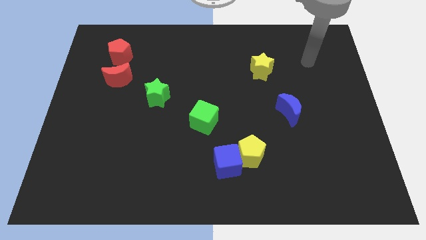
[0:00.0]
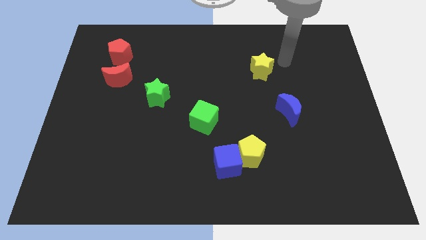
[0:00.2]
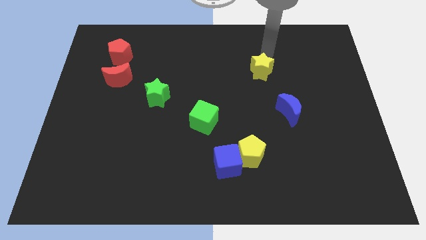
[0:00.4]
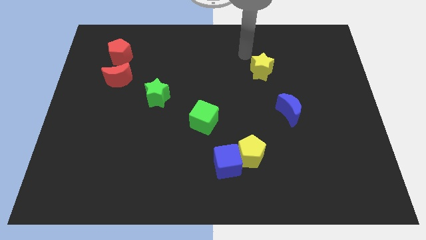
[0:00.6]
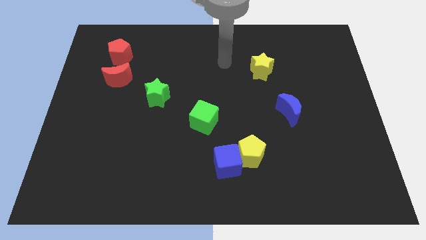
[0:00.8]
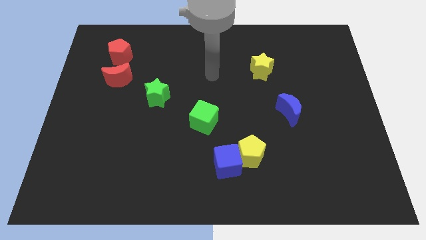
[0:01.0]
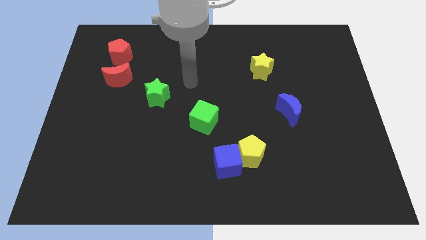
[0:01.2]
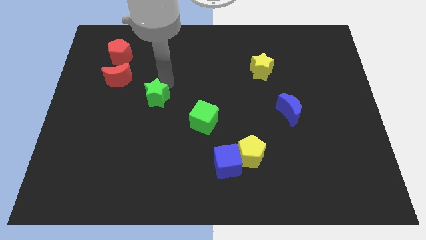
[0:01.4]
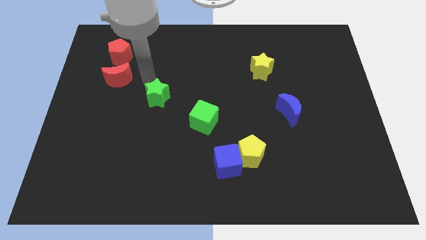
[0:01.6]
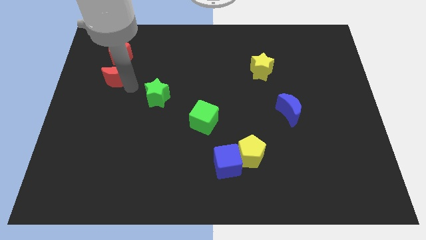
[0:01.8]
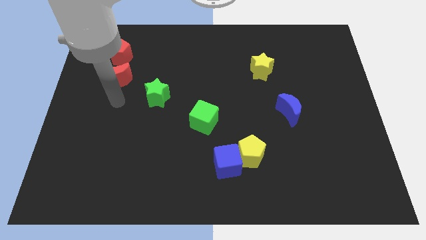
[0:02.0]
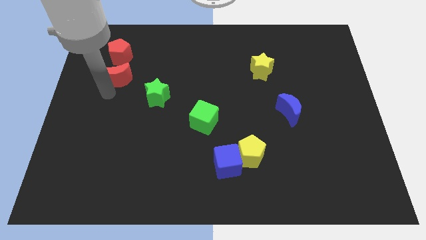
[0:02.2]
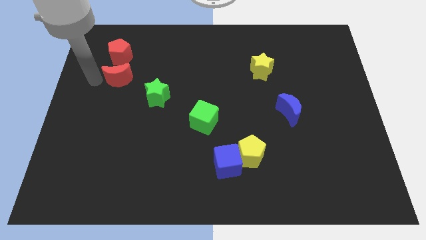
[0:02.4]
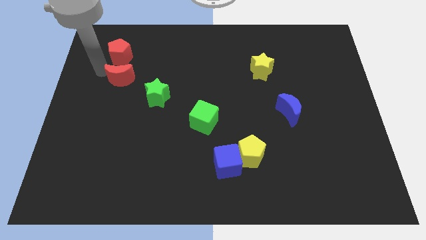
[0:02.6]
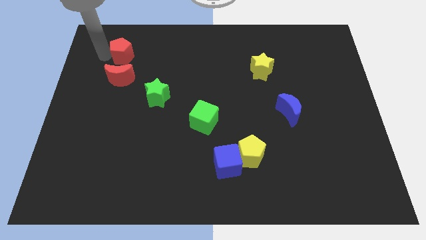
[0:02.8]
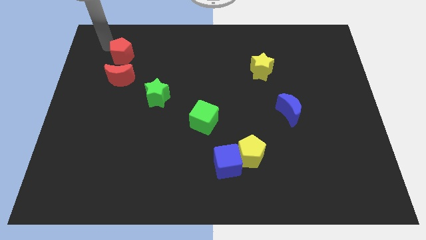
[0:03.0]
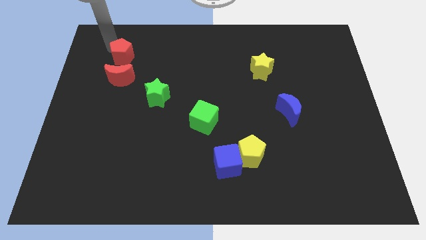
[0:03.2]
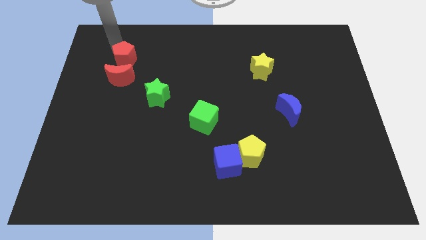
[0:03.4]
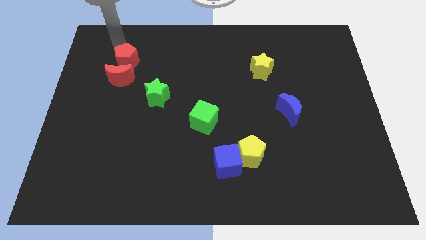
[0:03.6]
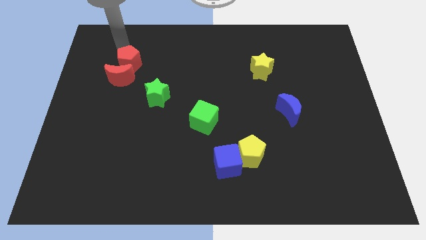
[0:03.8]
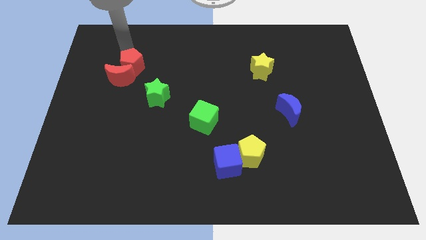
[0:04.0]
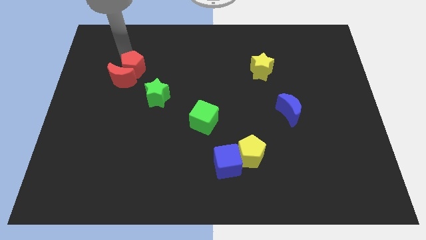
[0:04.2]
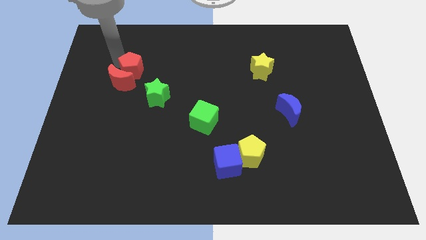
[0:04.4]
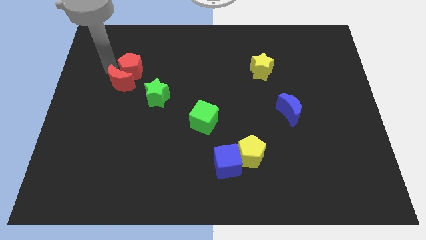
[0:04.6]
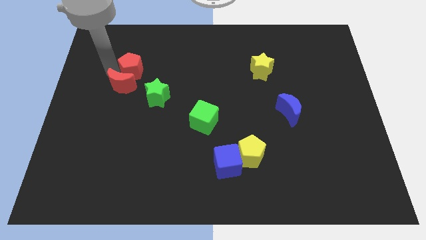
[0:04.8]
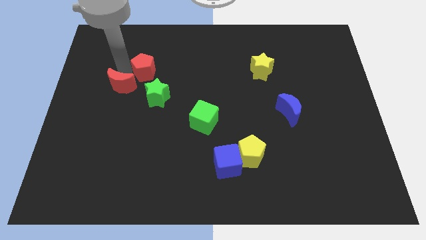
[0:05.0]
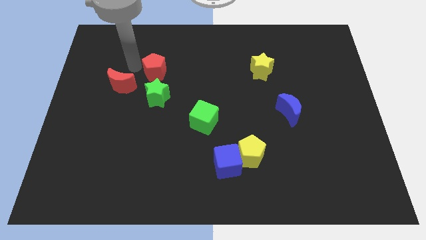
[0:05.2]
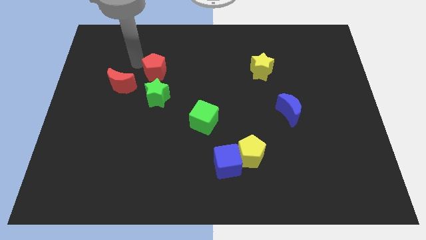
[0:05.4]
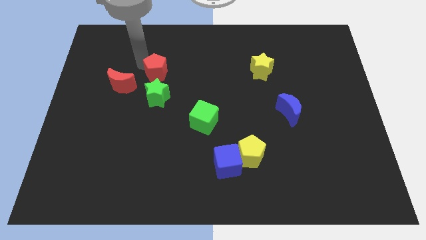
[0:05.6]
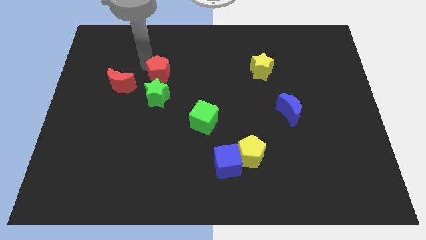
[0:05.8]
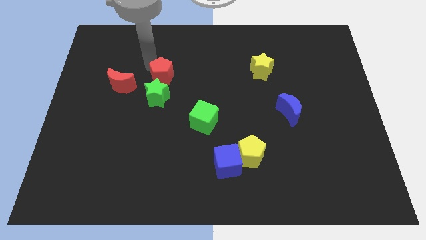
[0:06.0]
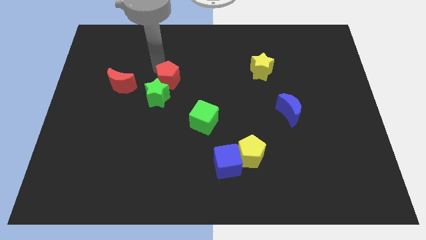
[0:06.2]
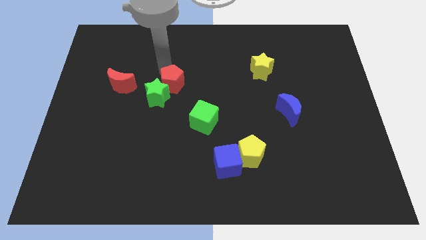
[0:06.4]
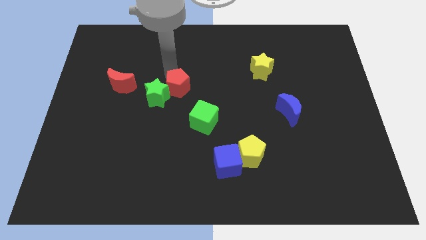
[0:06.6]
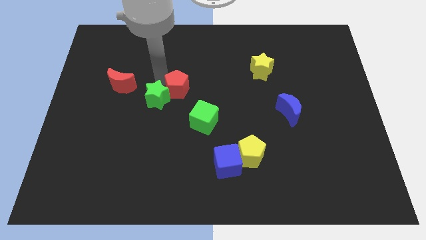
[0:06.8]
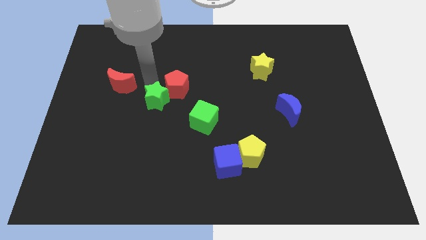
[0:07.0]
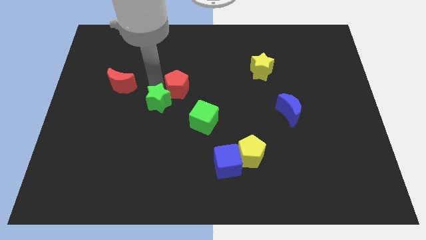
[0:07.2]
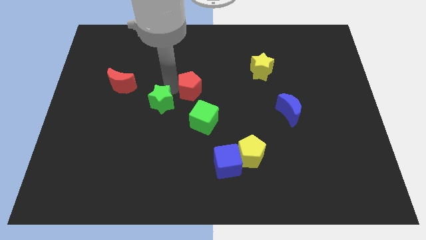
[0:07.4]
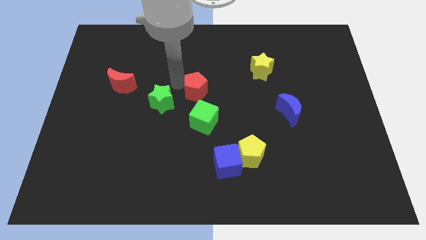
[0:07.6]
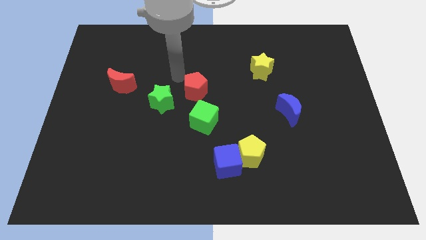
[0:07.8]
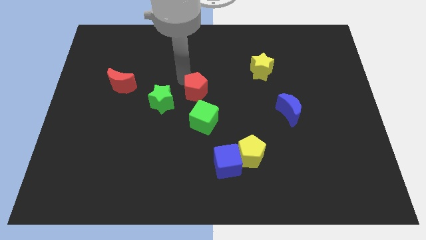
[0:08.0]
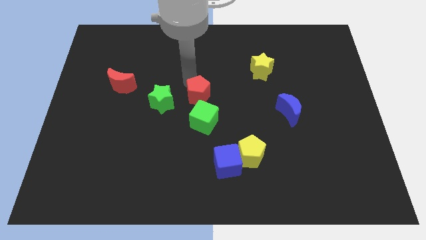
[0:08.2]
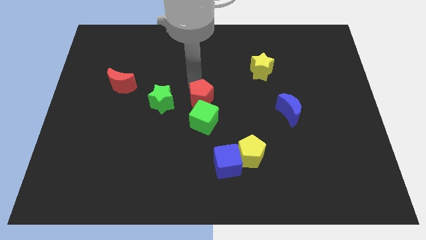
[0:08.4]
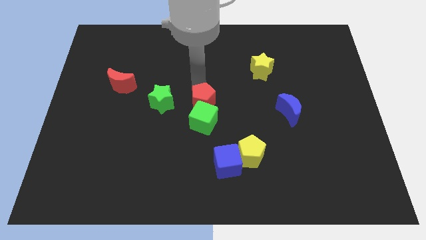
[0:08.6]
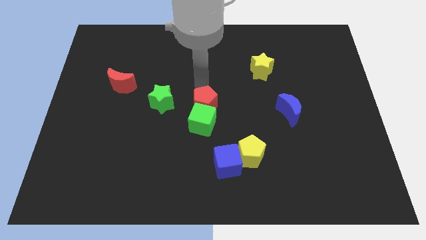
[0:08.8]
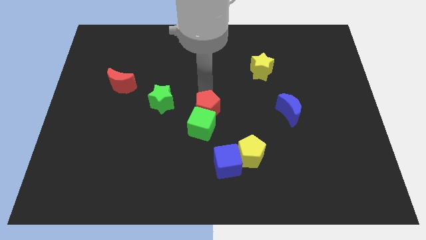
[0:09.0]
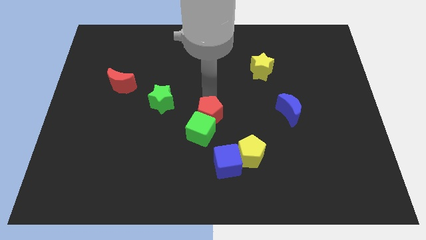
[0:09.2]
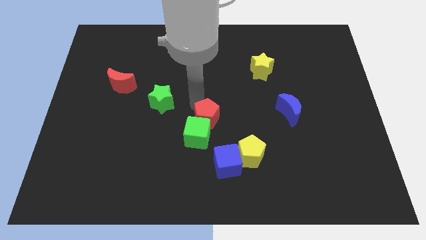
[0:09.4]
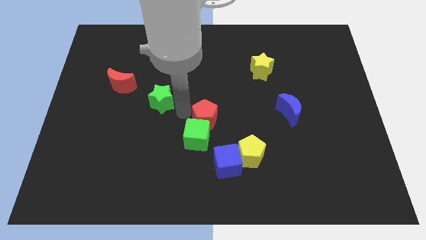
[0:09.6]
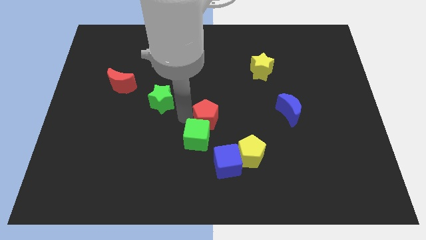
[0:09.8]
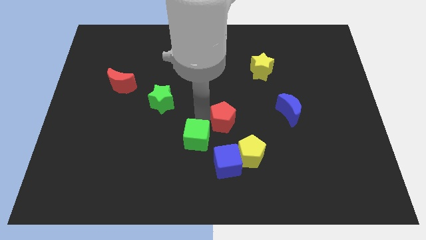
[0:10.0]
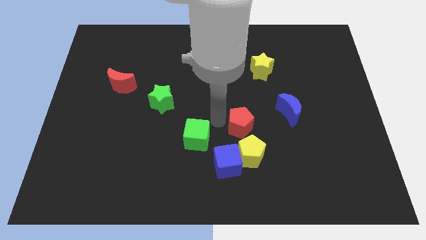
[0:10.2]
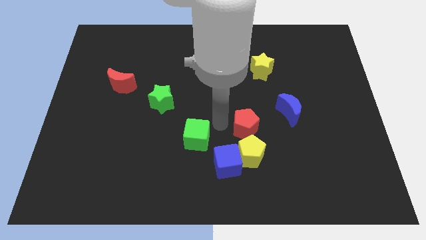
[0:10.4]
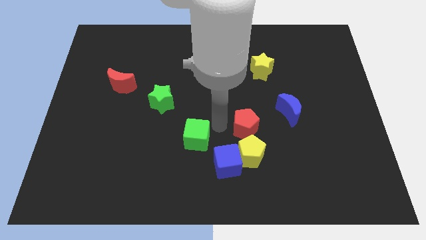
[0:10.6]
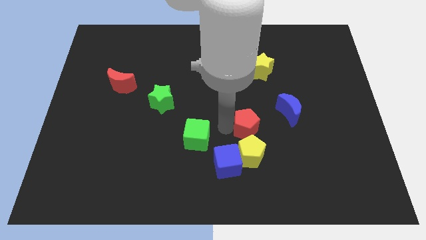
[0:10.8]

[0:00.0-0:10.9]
move the red pentagon to the bottom left of the blue moon

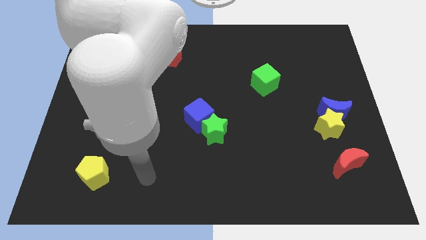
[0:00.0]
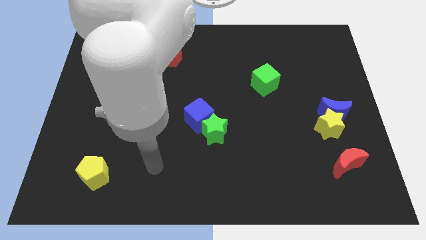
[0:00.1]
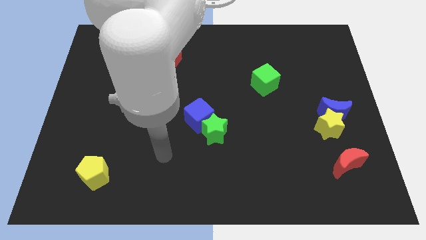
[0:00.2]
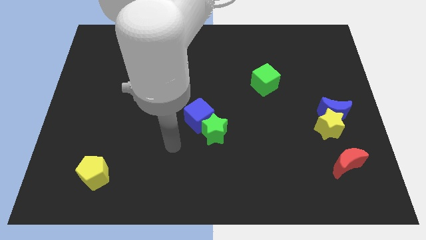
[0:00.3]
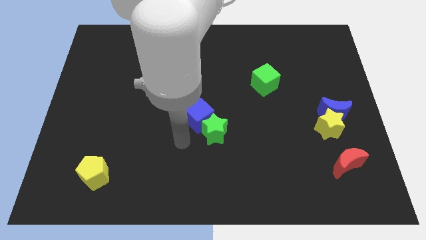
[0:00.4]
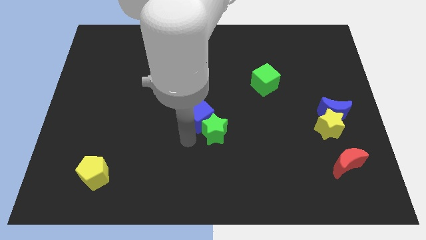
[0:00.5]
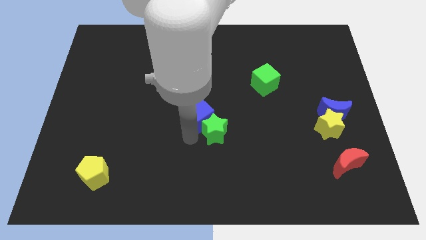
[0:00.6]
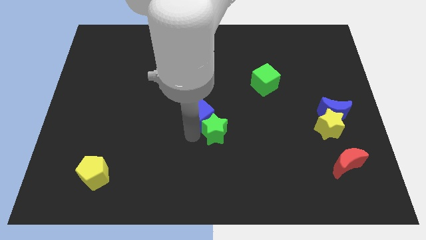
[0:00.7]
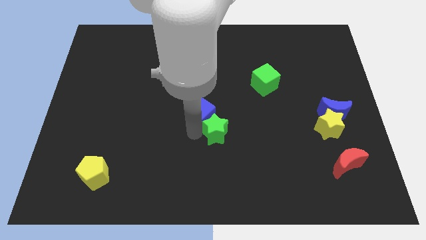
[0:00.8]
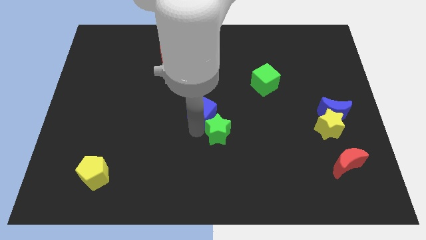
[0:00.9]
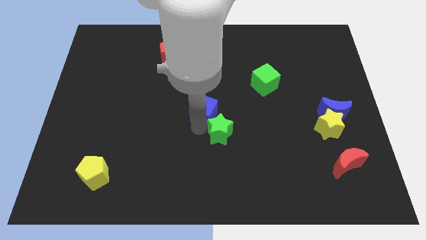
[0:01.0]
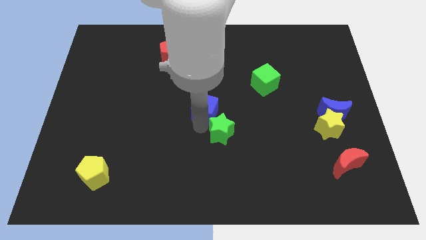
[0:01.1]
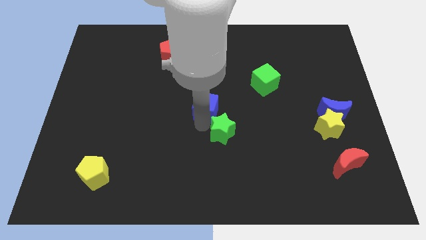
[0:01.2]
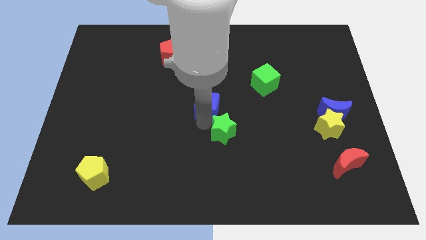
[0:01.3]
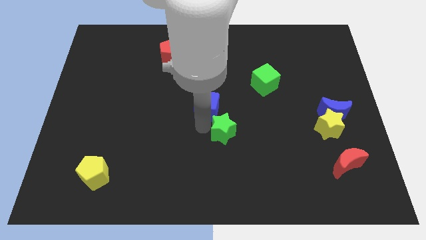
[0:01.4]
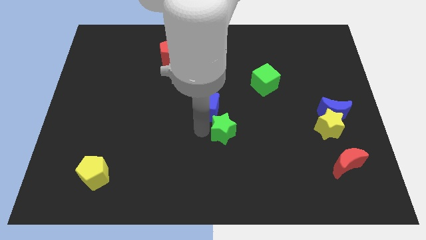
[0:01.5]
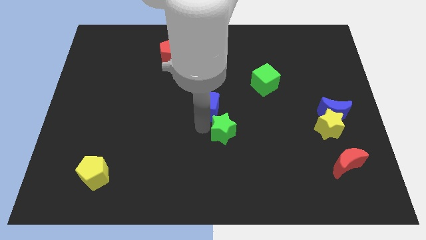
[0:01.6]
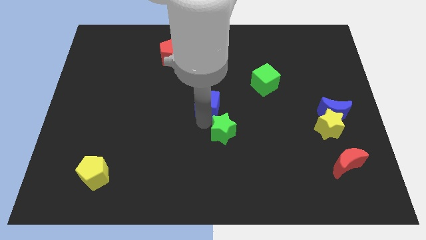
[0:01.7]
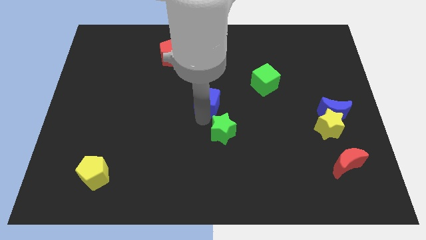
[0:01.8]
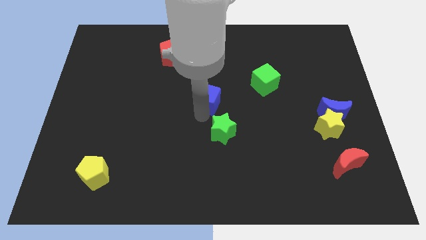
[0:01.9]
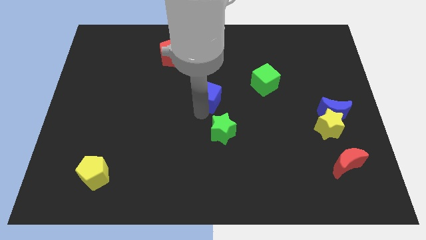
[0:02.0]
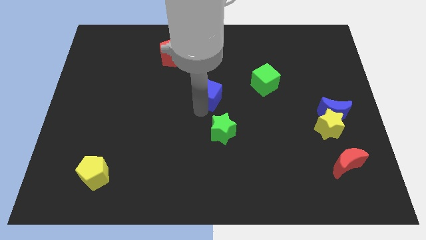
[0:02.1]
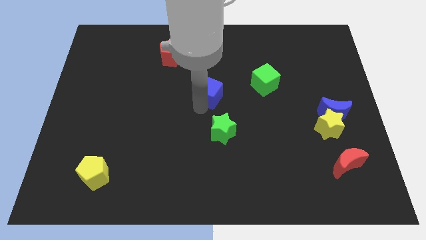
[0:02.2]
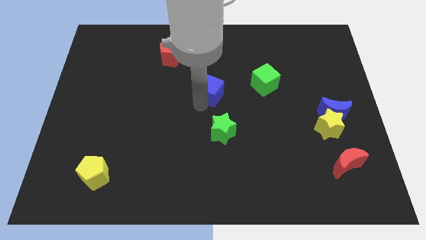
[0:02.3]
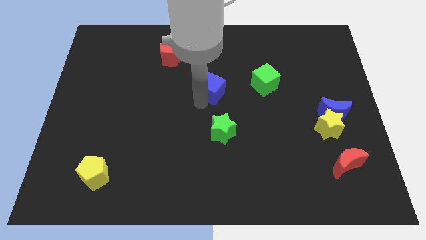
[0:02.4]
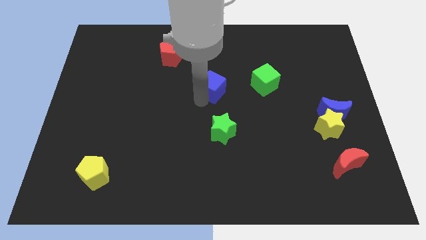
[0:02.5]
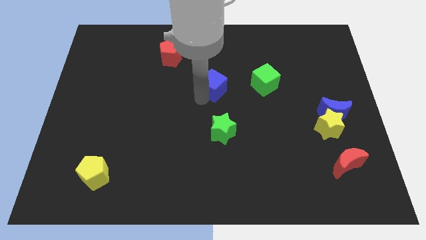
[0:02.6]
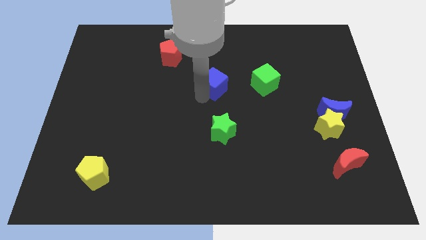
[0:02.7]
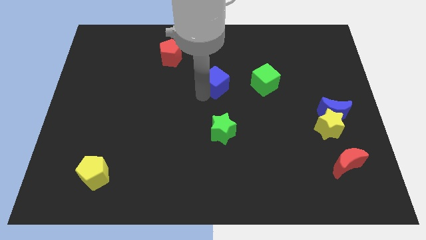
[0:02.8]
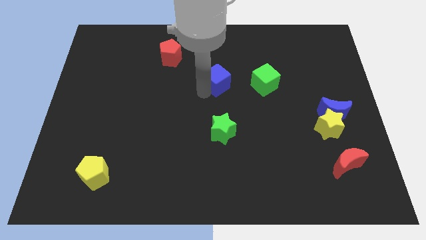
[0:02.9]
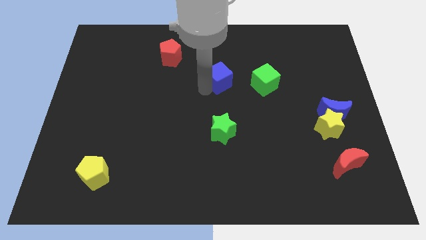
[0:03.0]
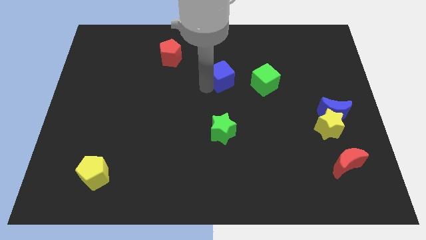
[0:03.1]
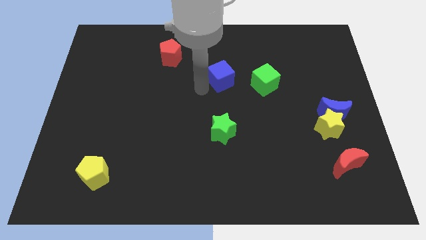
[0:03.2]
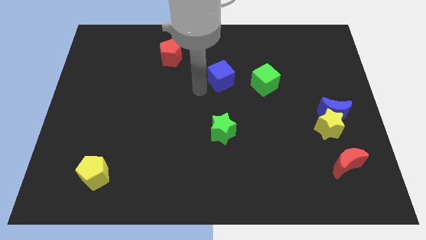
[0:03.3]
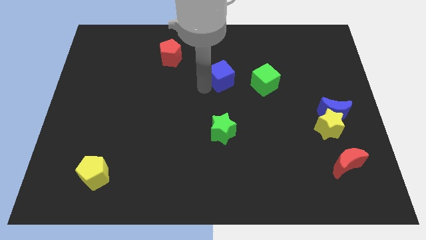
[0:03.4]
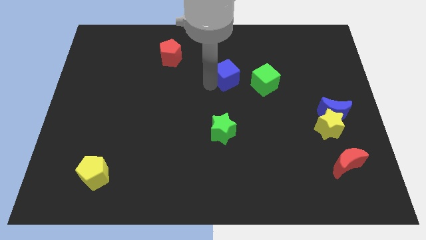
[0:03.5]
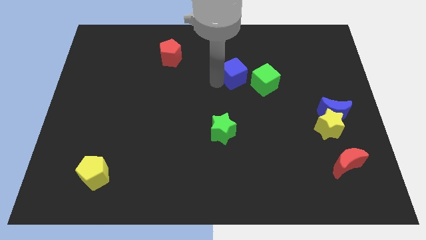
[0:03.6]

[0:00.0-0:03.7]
put the blue cube diagonally up and to the left of the green cube
